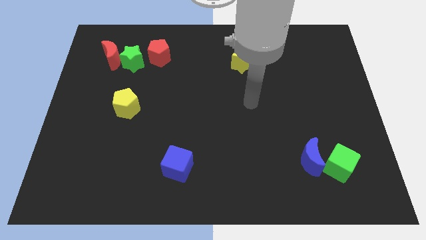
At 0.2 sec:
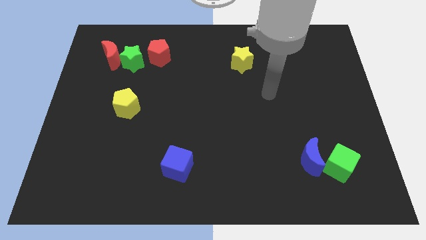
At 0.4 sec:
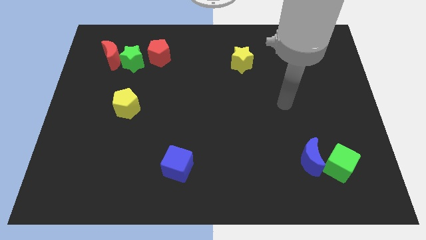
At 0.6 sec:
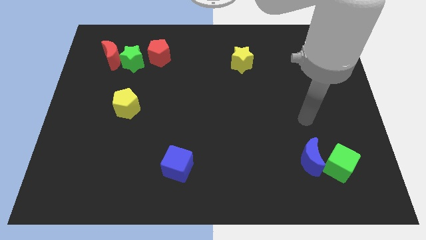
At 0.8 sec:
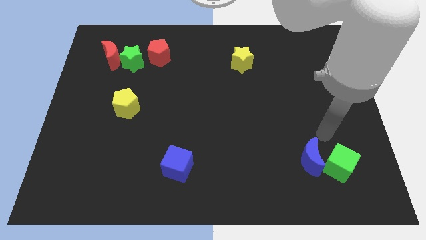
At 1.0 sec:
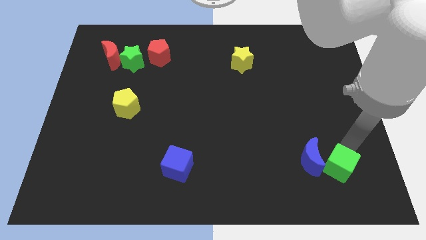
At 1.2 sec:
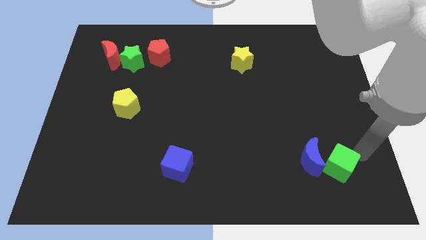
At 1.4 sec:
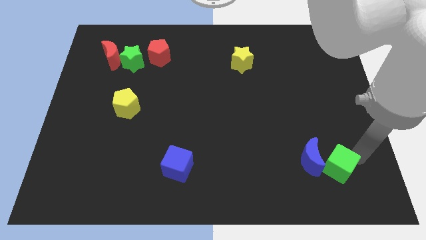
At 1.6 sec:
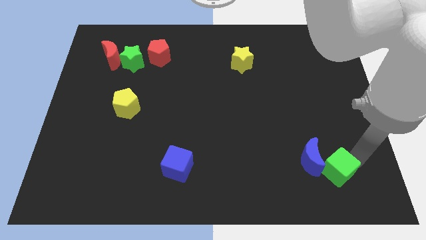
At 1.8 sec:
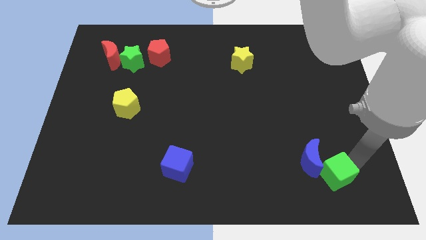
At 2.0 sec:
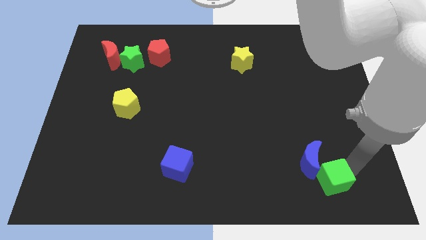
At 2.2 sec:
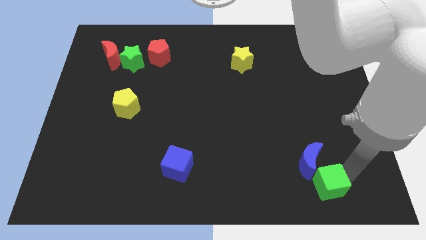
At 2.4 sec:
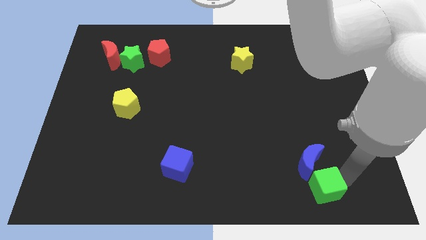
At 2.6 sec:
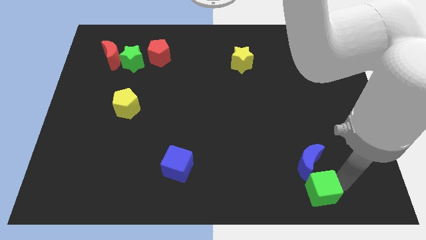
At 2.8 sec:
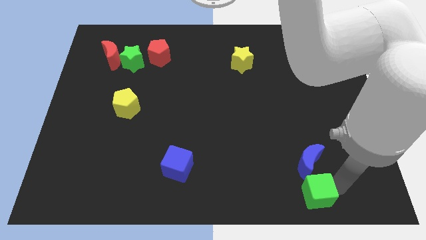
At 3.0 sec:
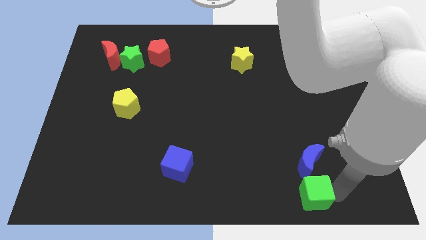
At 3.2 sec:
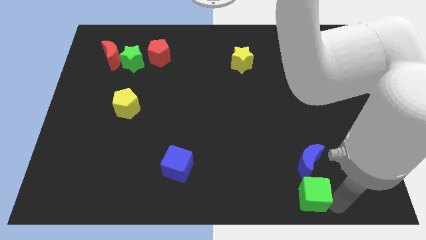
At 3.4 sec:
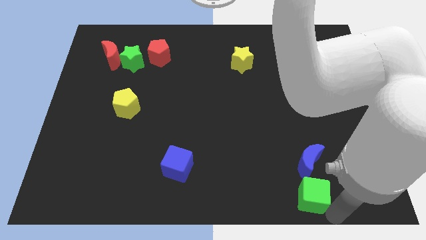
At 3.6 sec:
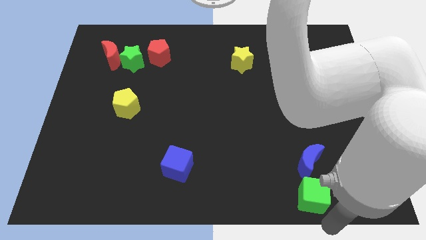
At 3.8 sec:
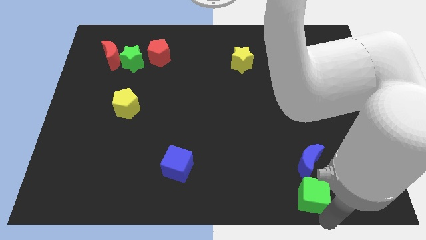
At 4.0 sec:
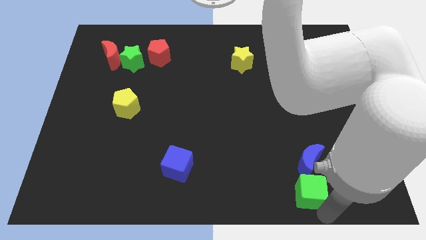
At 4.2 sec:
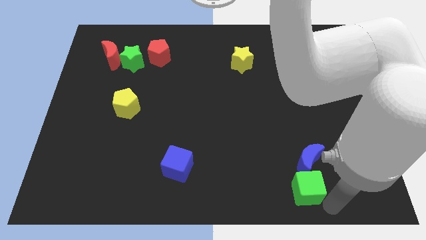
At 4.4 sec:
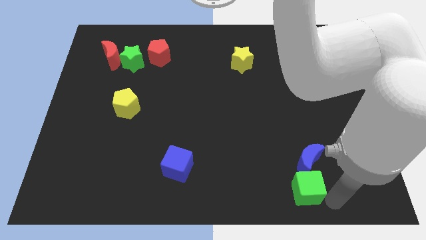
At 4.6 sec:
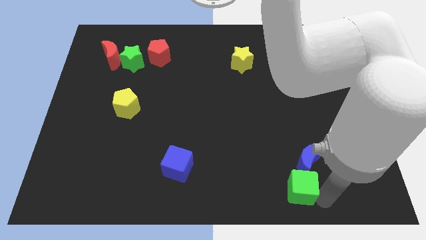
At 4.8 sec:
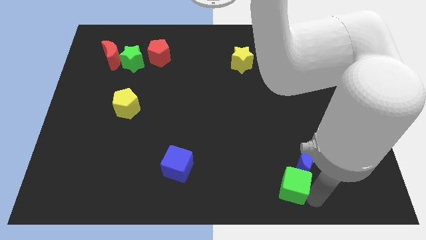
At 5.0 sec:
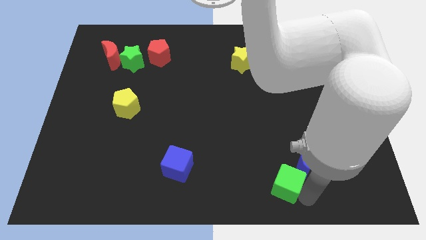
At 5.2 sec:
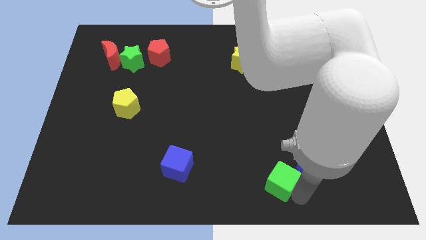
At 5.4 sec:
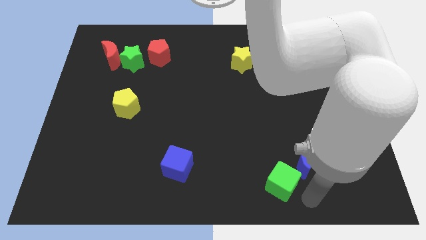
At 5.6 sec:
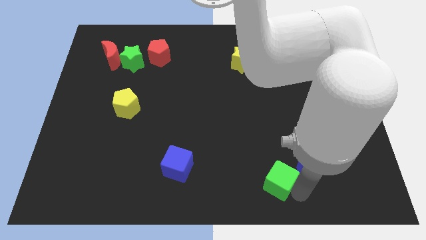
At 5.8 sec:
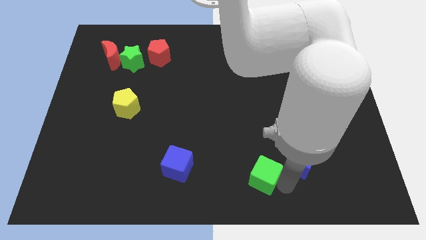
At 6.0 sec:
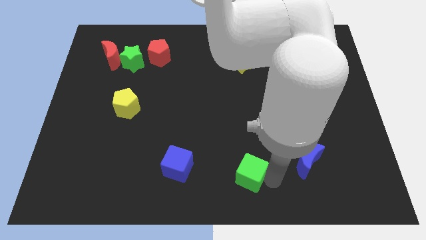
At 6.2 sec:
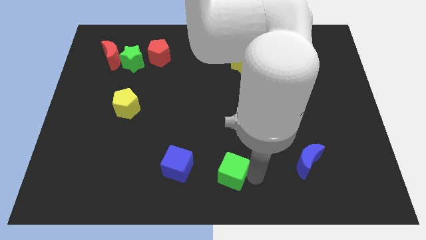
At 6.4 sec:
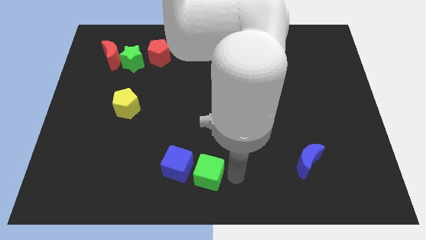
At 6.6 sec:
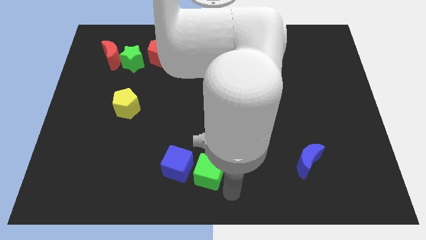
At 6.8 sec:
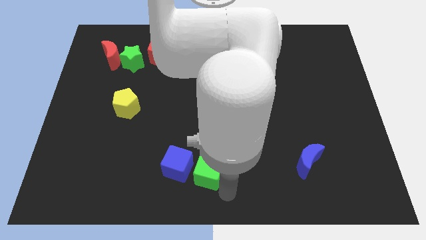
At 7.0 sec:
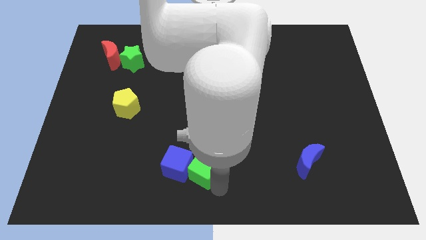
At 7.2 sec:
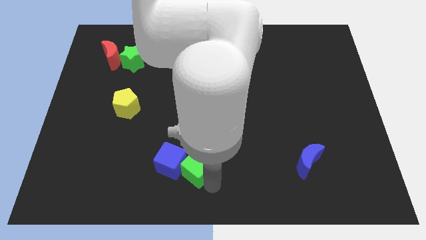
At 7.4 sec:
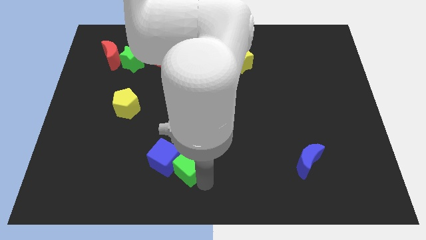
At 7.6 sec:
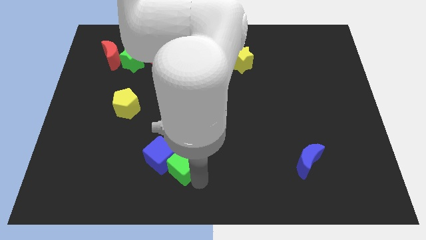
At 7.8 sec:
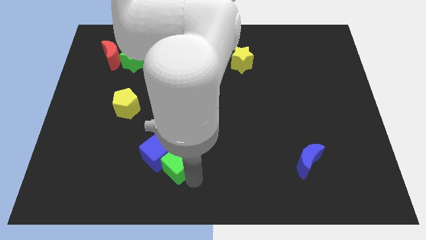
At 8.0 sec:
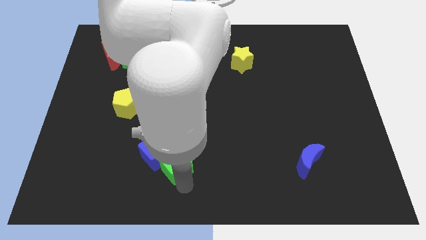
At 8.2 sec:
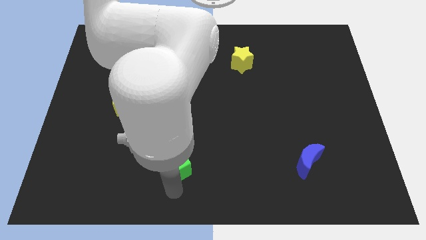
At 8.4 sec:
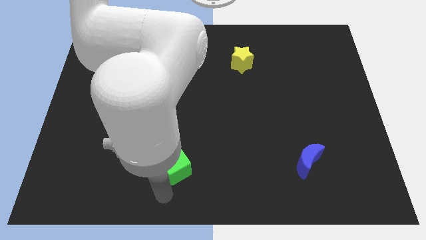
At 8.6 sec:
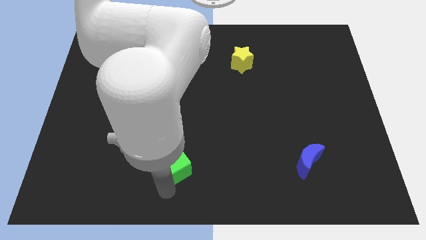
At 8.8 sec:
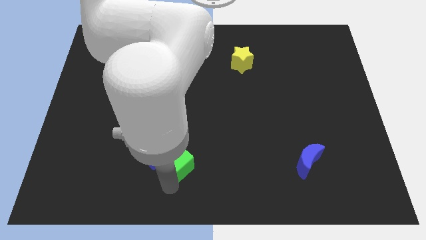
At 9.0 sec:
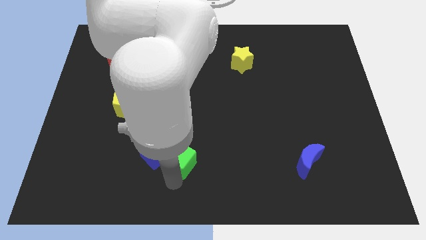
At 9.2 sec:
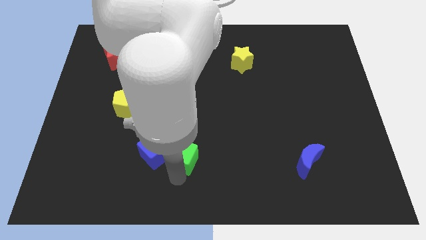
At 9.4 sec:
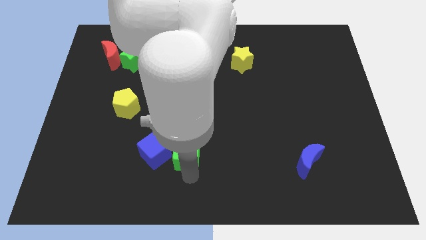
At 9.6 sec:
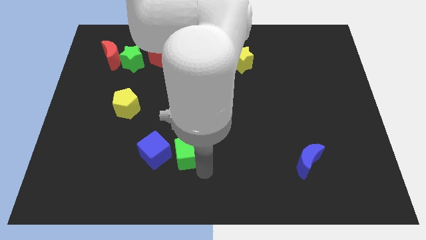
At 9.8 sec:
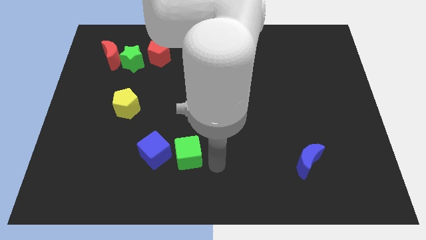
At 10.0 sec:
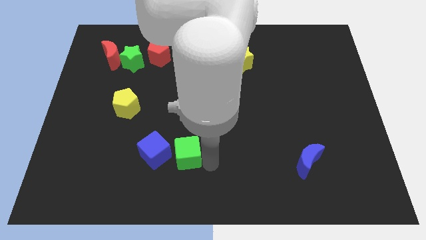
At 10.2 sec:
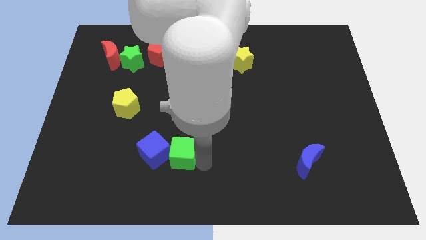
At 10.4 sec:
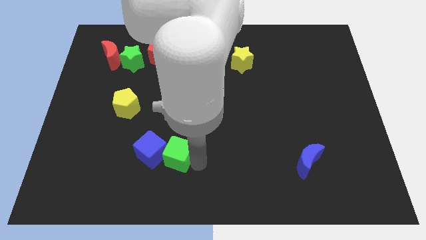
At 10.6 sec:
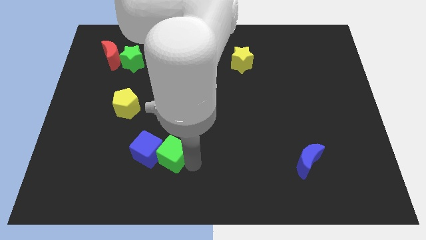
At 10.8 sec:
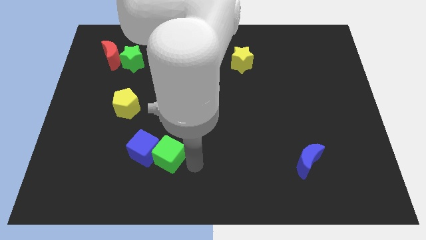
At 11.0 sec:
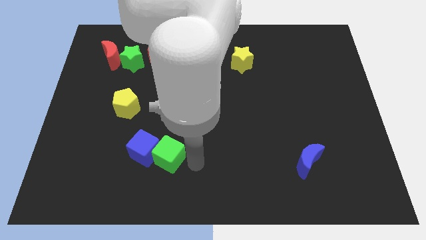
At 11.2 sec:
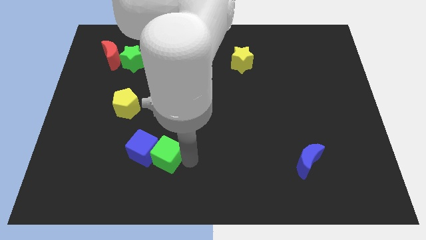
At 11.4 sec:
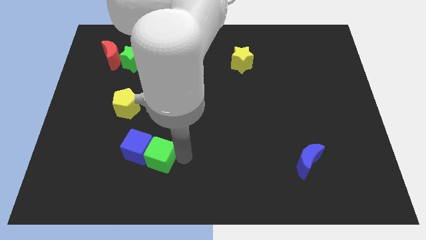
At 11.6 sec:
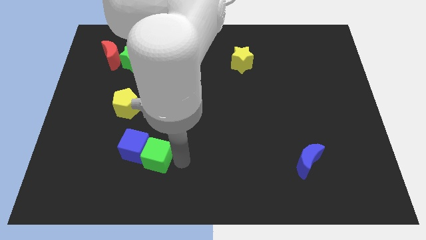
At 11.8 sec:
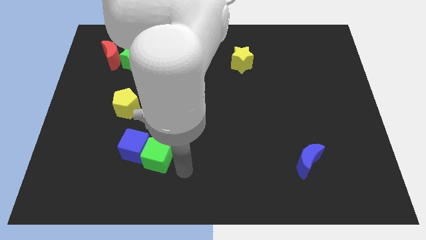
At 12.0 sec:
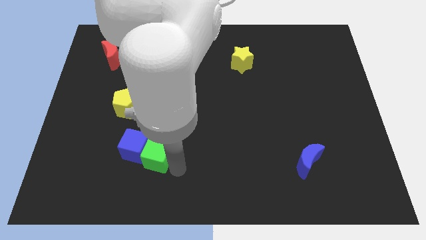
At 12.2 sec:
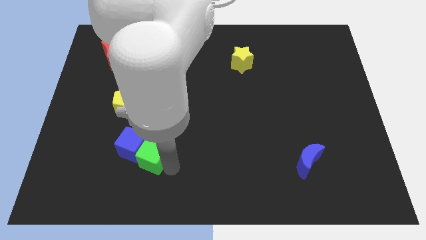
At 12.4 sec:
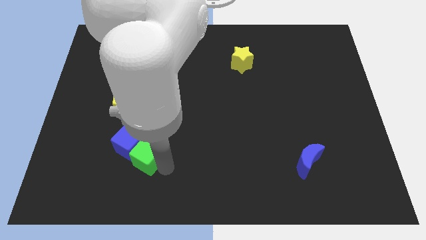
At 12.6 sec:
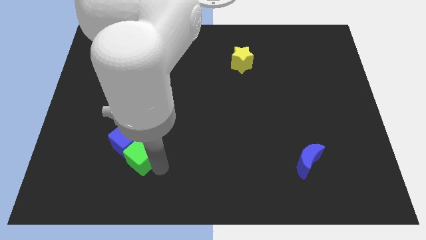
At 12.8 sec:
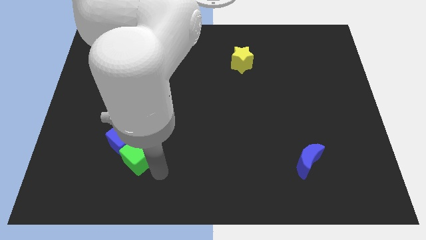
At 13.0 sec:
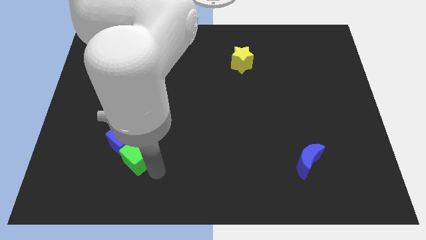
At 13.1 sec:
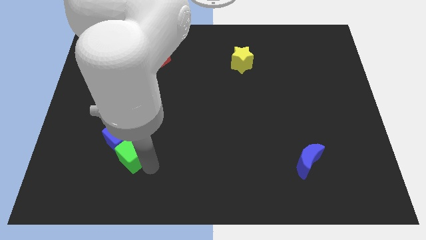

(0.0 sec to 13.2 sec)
push the green cube below the yellow pentagon

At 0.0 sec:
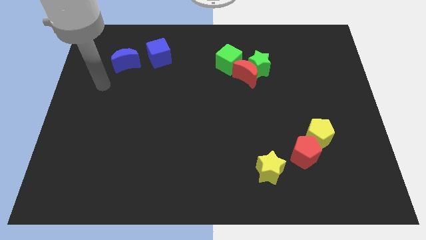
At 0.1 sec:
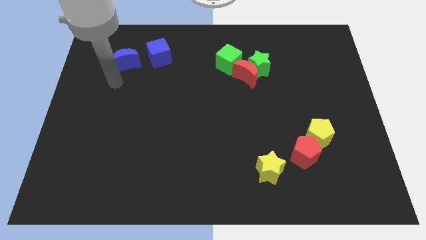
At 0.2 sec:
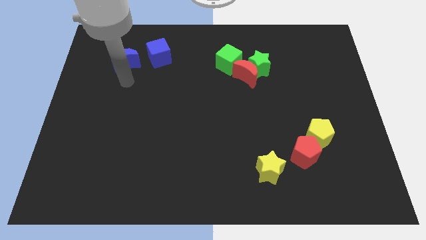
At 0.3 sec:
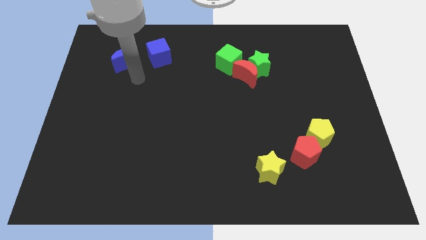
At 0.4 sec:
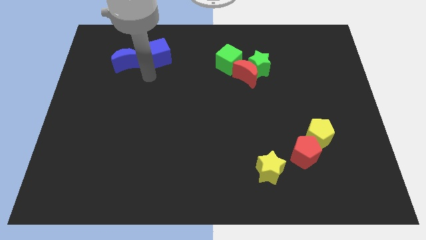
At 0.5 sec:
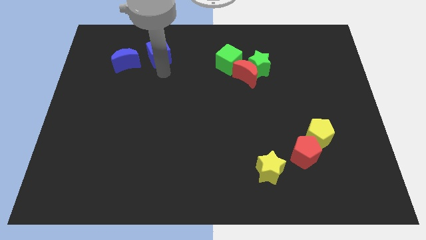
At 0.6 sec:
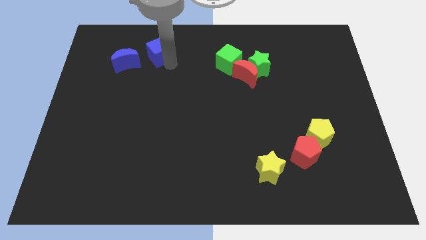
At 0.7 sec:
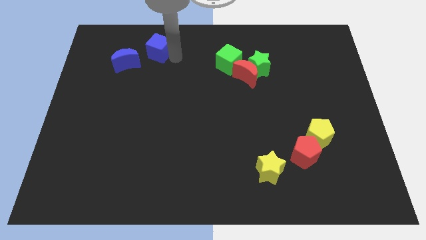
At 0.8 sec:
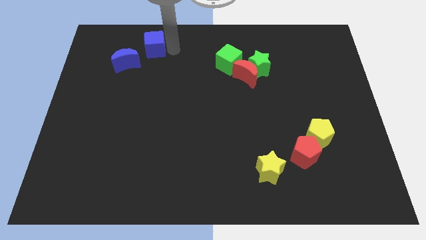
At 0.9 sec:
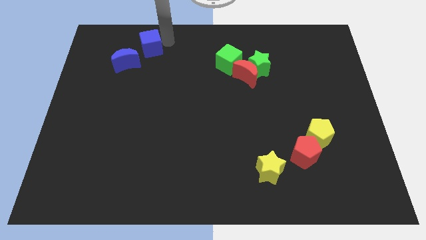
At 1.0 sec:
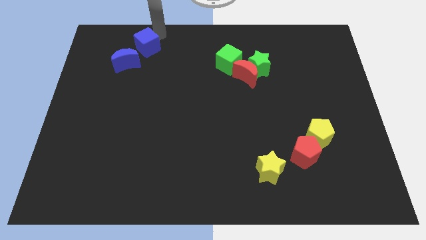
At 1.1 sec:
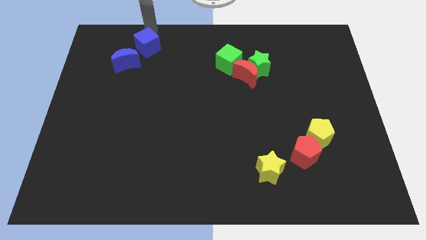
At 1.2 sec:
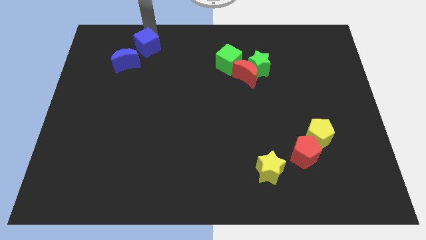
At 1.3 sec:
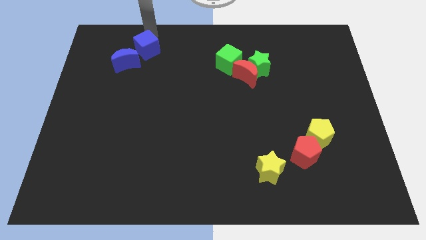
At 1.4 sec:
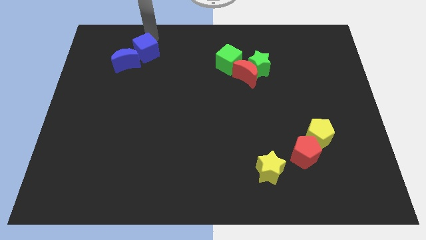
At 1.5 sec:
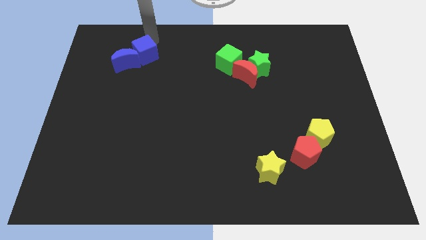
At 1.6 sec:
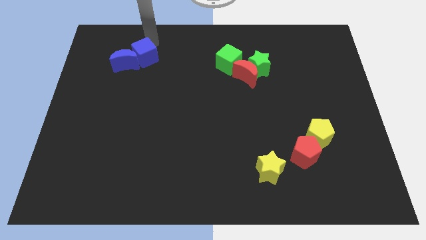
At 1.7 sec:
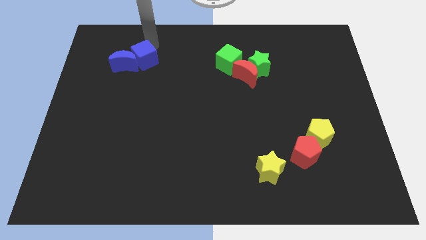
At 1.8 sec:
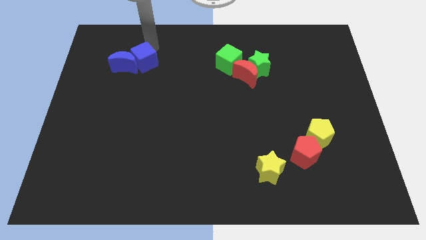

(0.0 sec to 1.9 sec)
slide the blue cube diagonally down and to the right of the blue moon

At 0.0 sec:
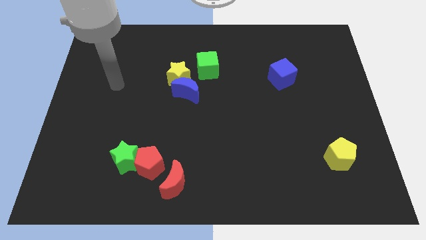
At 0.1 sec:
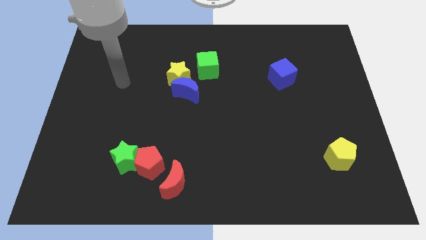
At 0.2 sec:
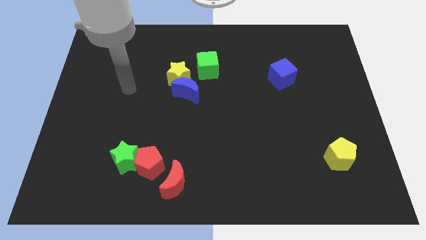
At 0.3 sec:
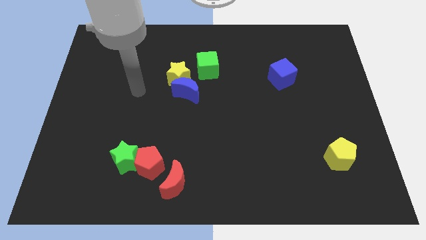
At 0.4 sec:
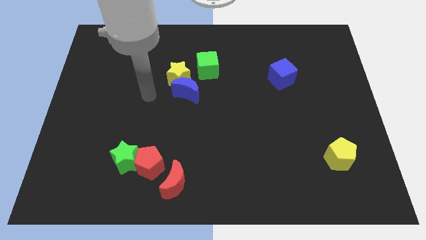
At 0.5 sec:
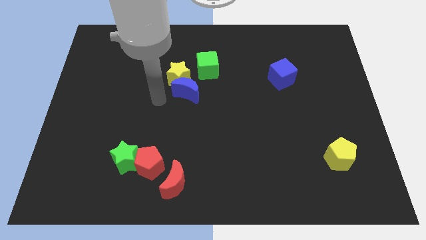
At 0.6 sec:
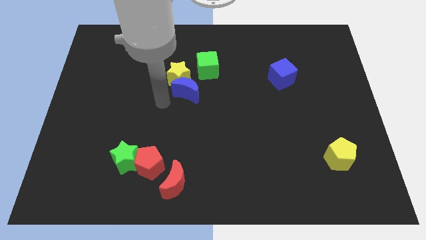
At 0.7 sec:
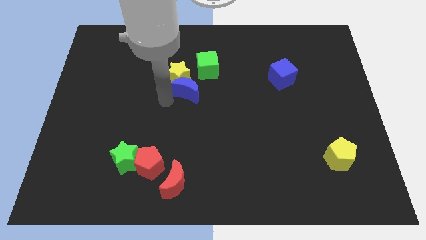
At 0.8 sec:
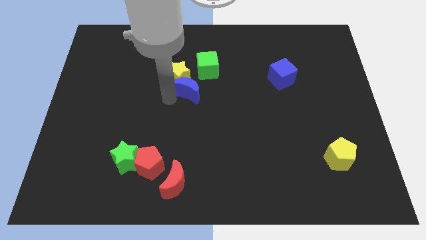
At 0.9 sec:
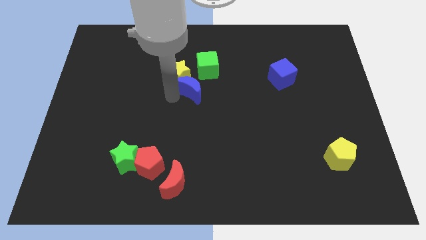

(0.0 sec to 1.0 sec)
push the blue moon to the right side of the yellow star
